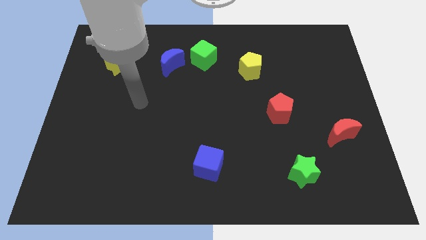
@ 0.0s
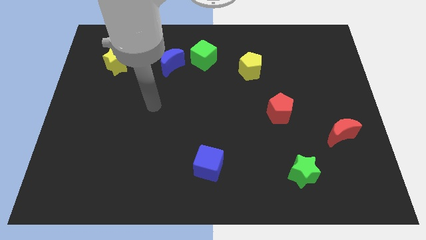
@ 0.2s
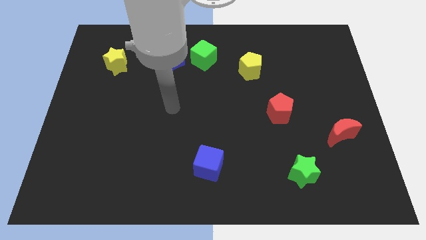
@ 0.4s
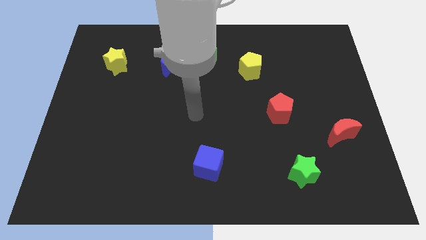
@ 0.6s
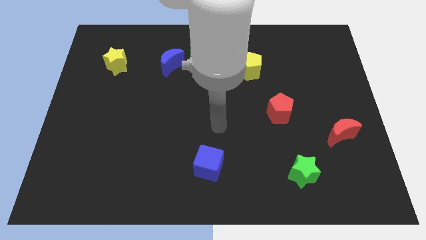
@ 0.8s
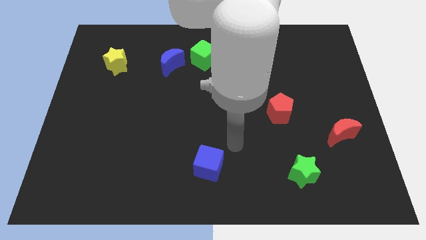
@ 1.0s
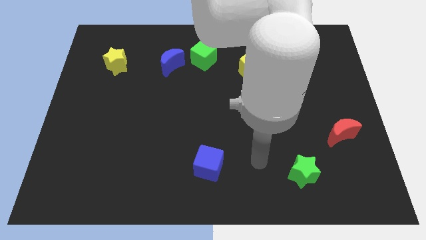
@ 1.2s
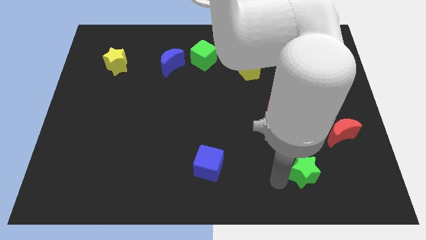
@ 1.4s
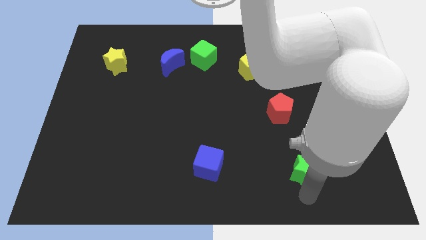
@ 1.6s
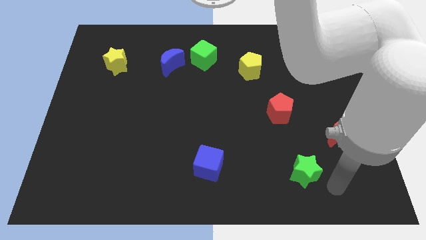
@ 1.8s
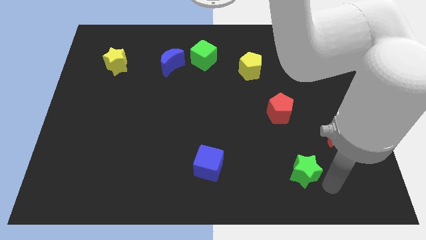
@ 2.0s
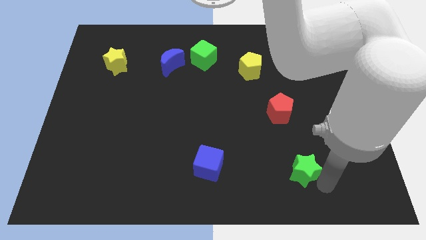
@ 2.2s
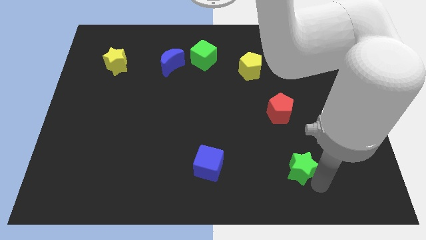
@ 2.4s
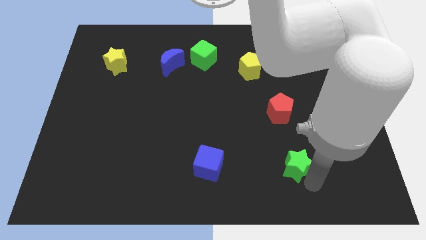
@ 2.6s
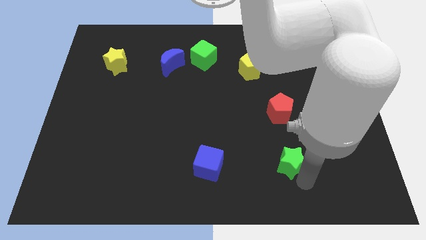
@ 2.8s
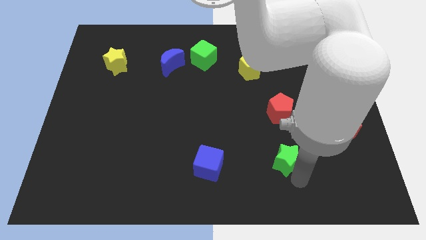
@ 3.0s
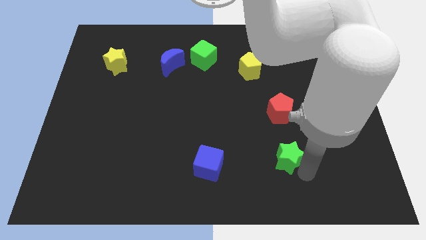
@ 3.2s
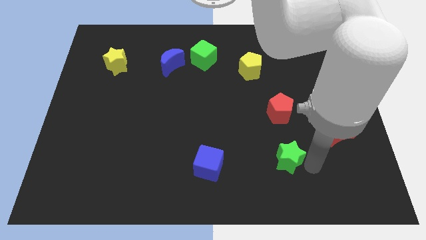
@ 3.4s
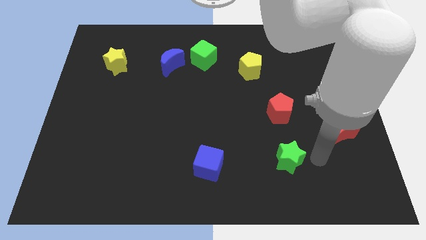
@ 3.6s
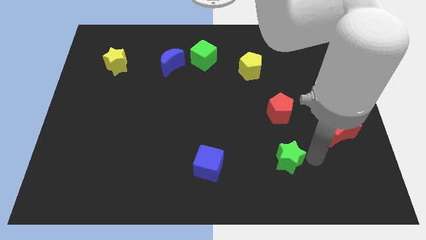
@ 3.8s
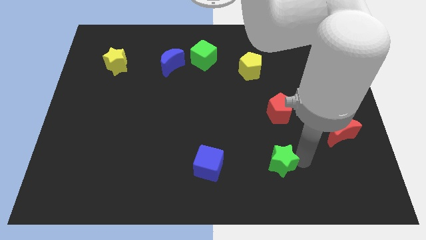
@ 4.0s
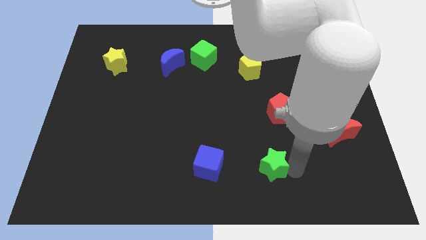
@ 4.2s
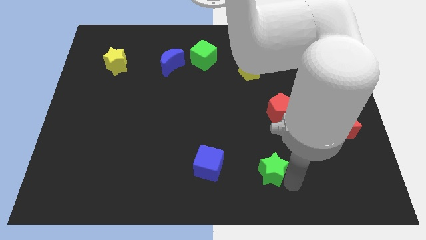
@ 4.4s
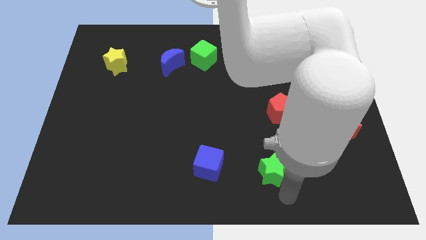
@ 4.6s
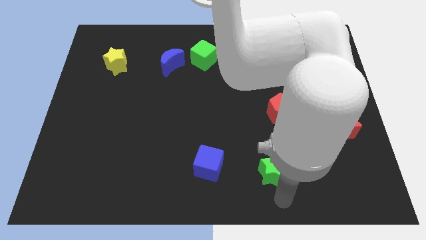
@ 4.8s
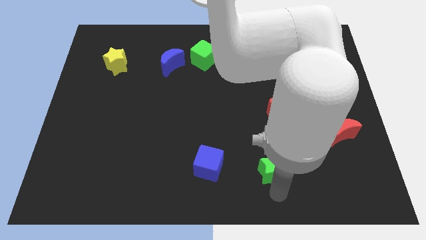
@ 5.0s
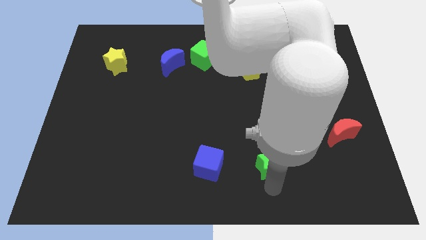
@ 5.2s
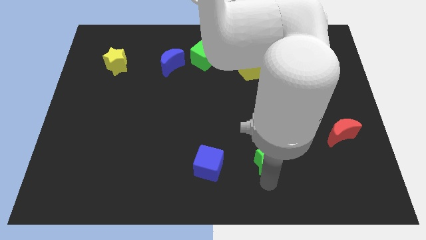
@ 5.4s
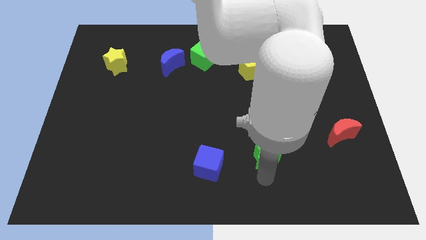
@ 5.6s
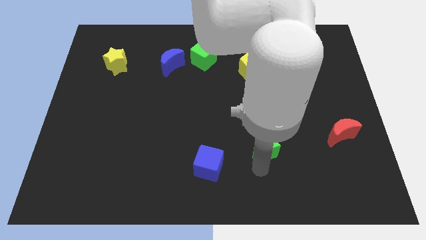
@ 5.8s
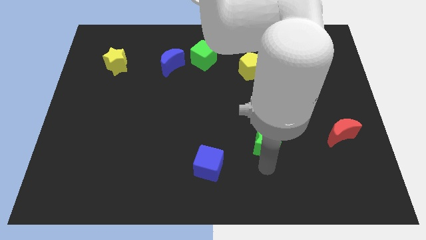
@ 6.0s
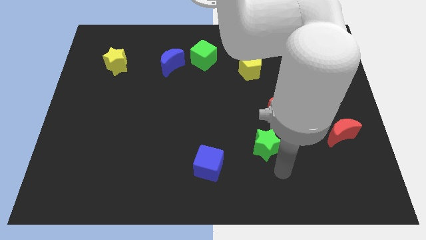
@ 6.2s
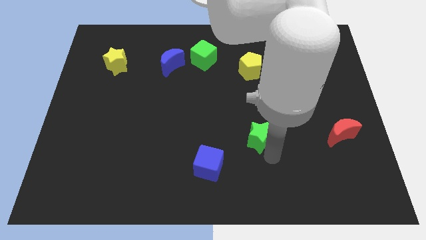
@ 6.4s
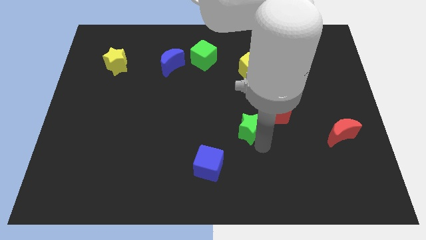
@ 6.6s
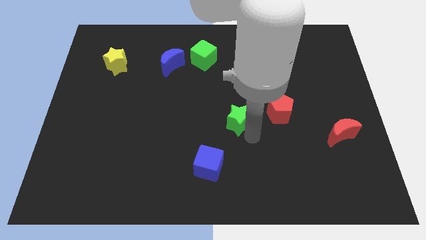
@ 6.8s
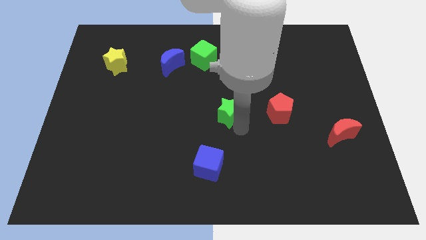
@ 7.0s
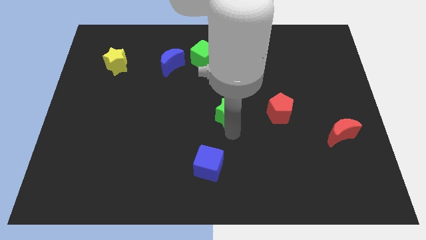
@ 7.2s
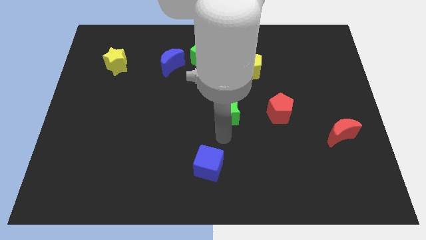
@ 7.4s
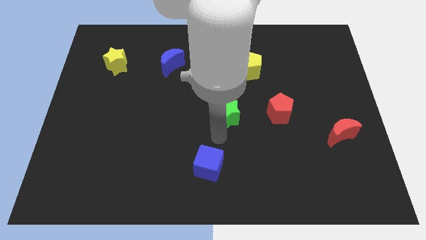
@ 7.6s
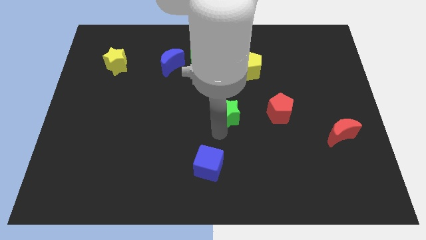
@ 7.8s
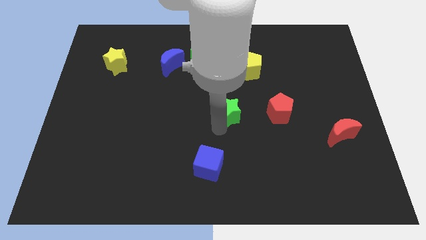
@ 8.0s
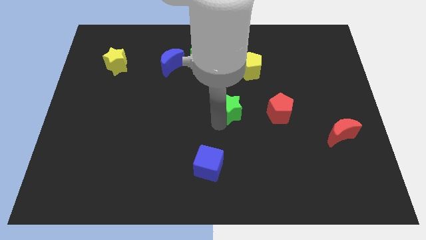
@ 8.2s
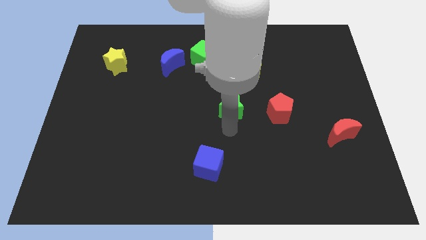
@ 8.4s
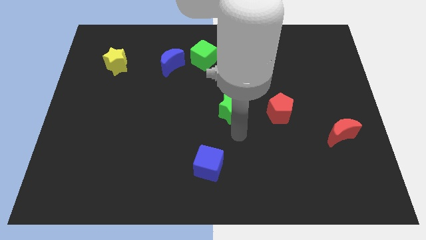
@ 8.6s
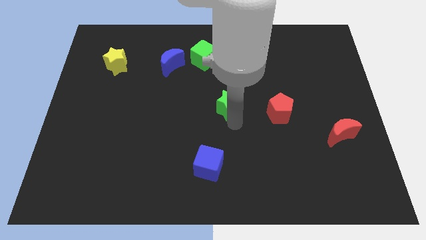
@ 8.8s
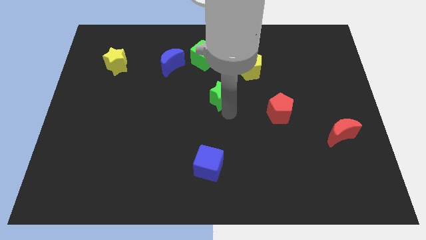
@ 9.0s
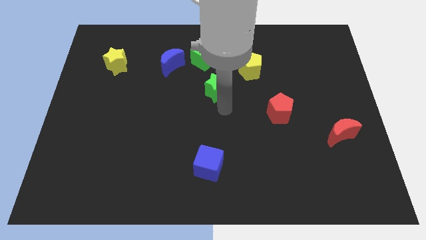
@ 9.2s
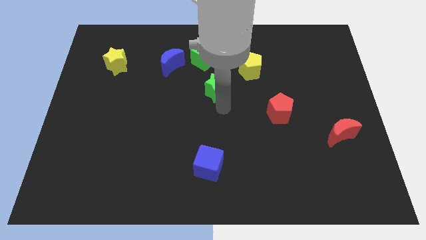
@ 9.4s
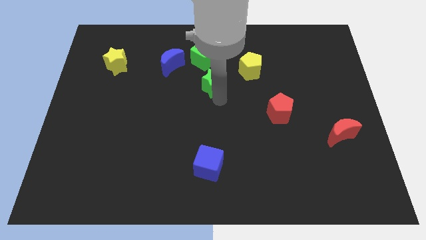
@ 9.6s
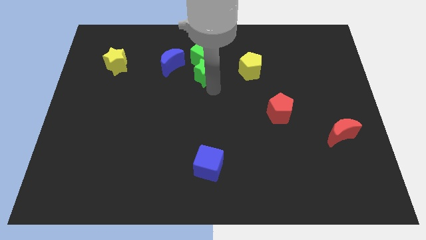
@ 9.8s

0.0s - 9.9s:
slide the green star close to the green cube

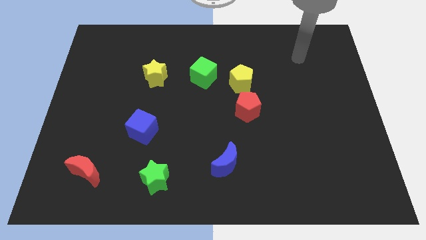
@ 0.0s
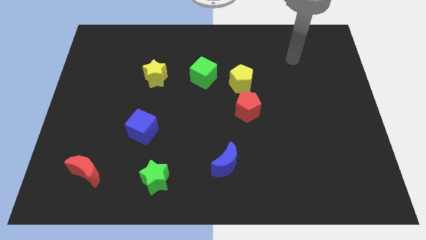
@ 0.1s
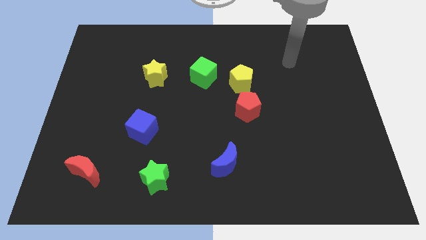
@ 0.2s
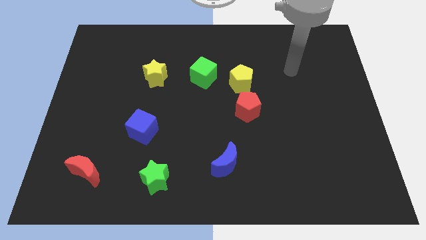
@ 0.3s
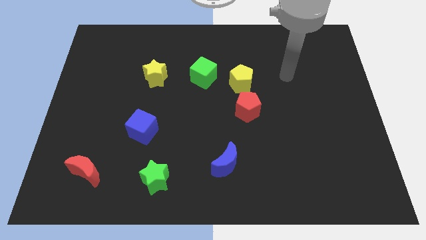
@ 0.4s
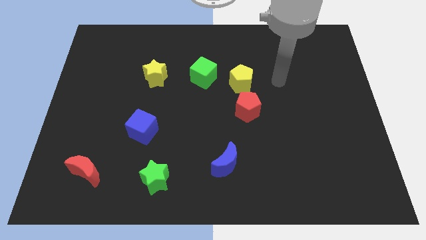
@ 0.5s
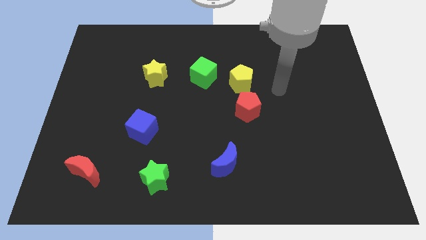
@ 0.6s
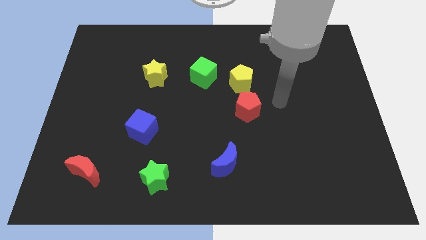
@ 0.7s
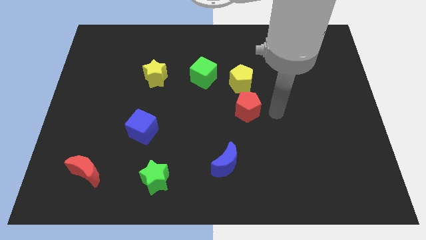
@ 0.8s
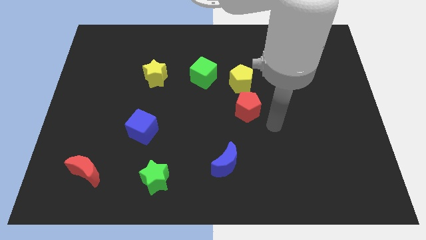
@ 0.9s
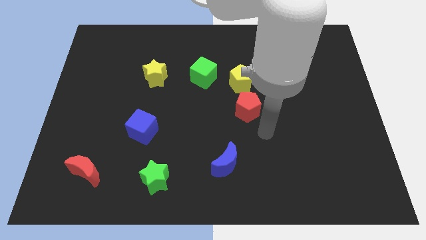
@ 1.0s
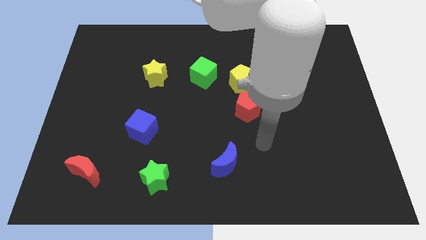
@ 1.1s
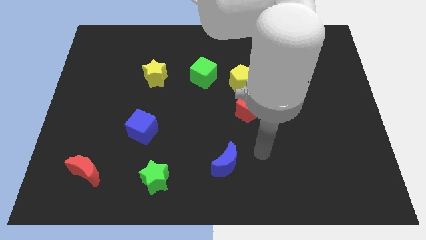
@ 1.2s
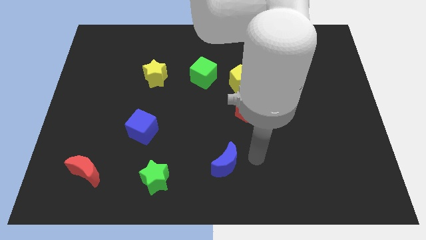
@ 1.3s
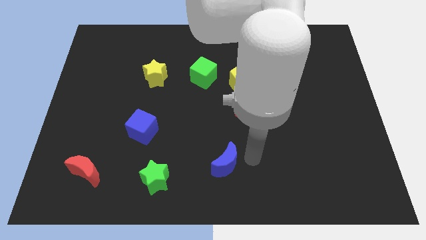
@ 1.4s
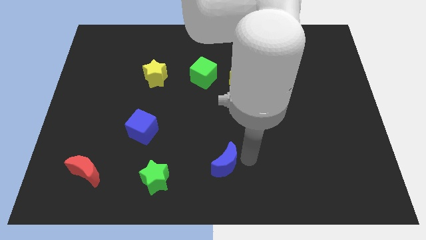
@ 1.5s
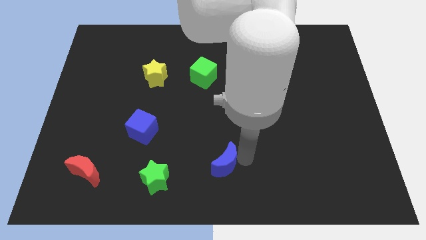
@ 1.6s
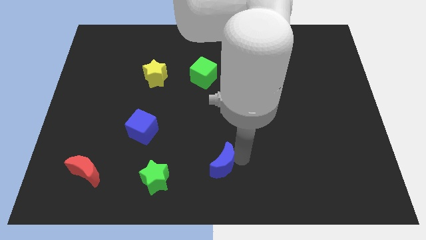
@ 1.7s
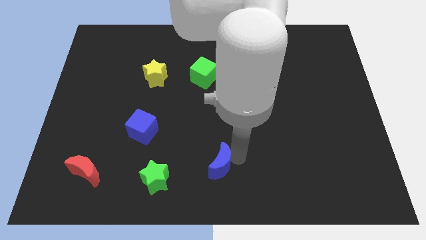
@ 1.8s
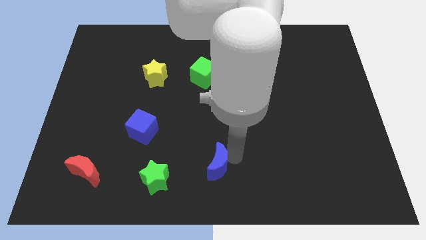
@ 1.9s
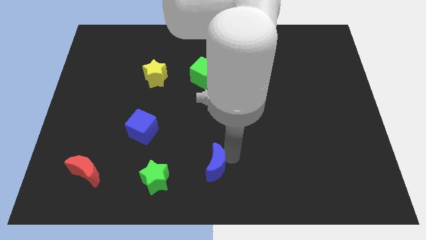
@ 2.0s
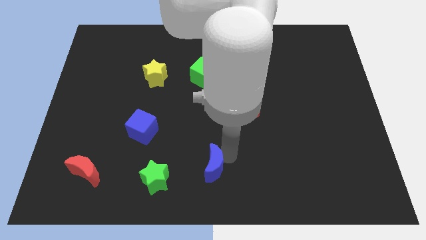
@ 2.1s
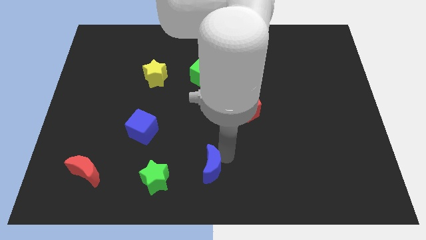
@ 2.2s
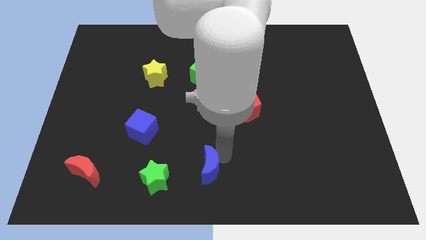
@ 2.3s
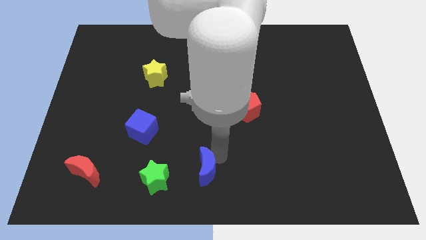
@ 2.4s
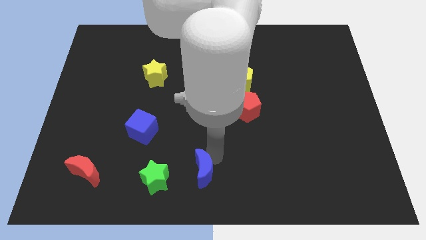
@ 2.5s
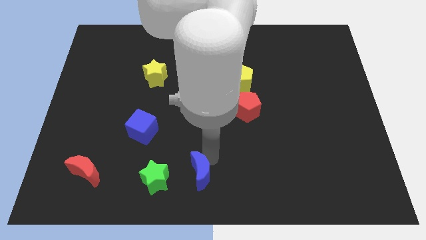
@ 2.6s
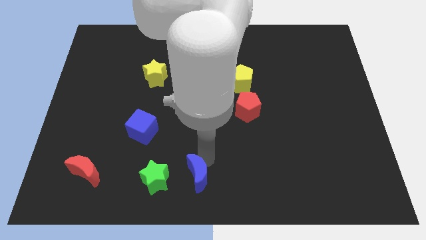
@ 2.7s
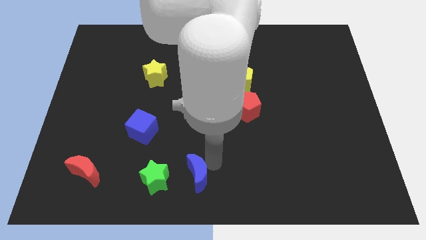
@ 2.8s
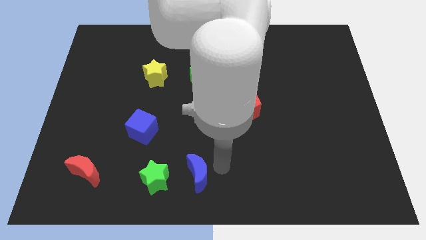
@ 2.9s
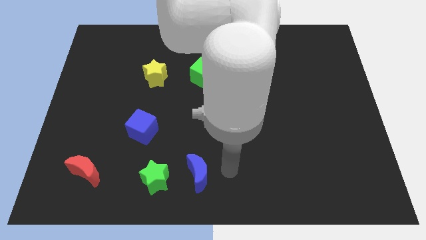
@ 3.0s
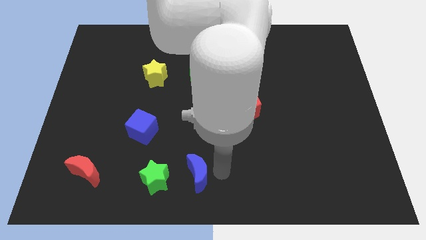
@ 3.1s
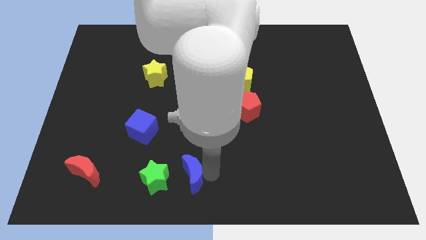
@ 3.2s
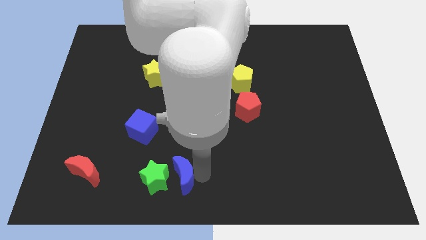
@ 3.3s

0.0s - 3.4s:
put the blue moon close to the green star
